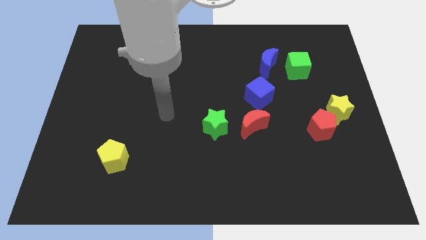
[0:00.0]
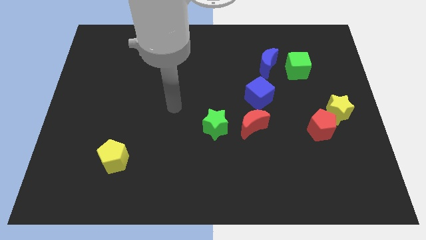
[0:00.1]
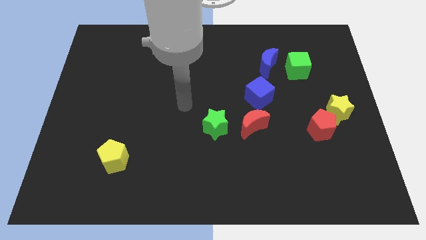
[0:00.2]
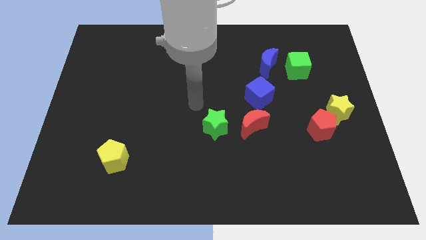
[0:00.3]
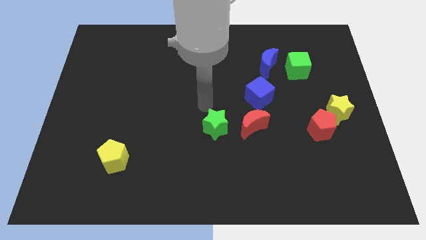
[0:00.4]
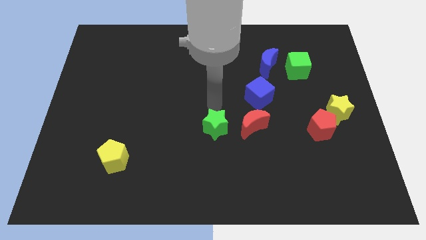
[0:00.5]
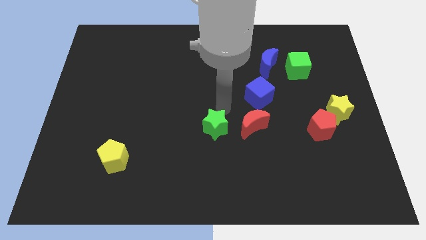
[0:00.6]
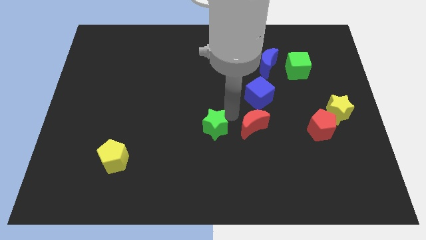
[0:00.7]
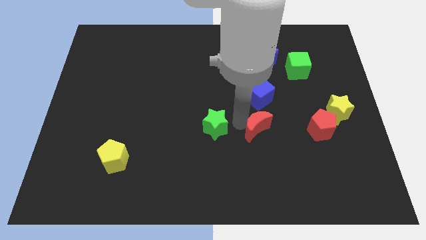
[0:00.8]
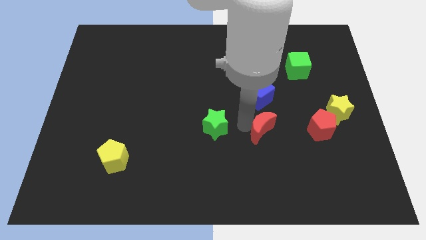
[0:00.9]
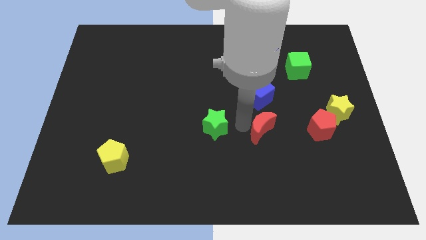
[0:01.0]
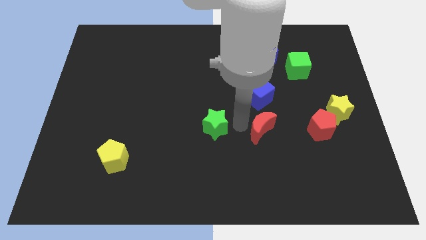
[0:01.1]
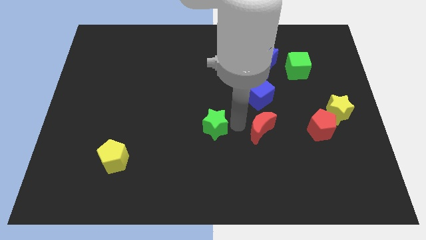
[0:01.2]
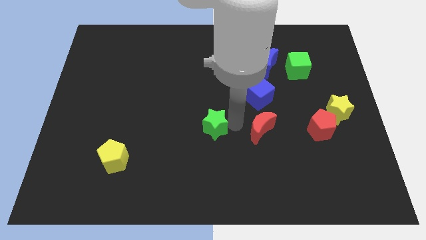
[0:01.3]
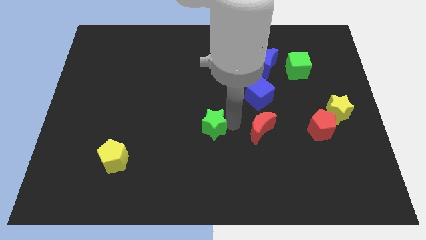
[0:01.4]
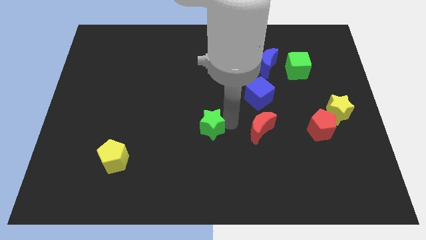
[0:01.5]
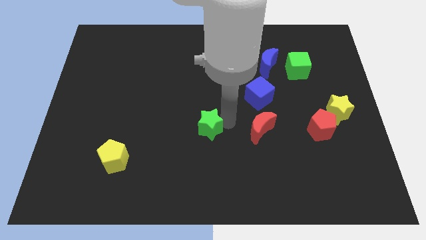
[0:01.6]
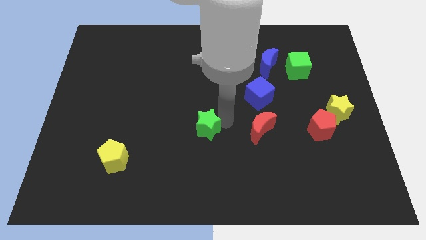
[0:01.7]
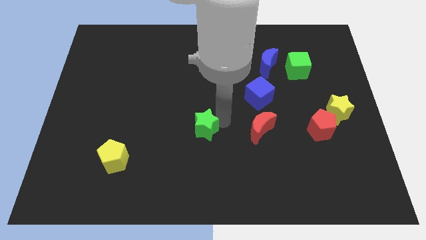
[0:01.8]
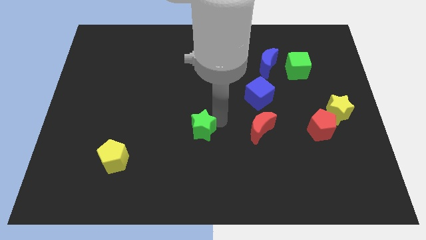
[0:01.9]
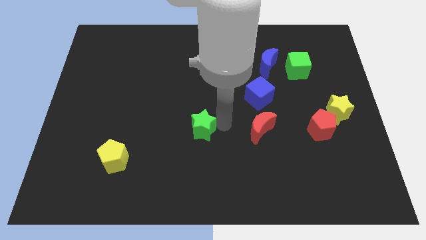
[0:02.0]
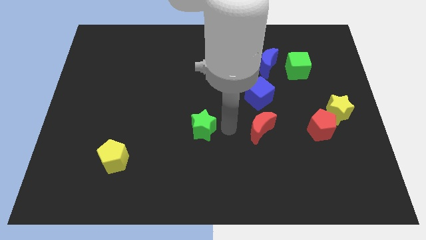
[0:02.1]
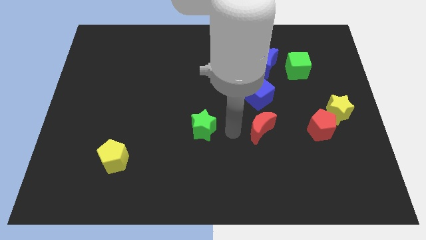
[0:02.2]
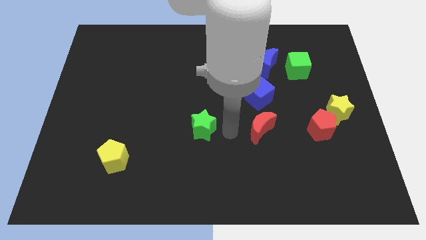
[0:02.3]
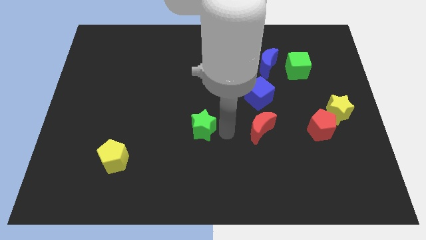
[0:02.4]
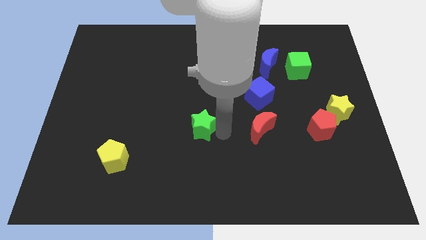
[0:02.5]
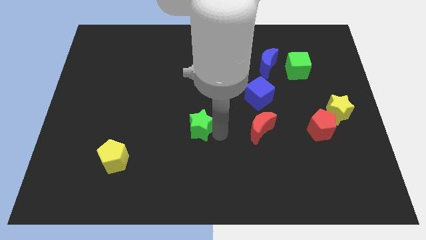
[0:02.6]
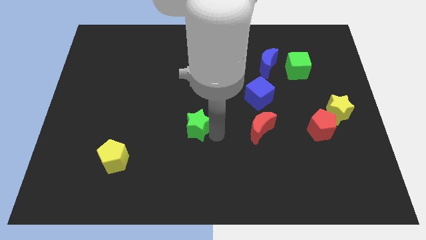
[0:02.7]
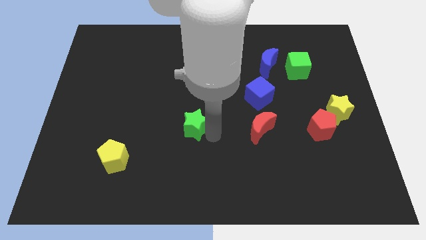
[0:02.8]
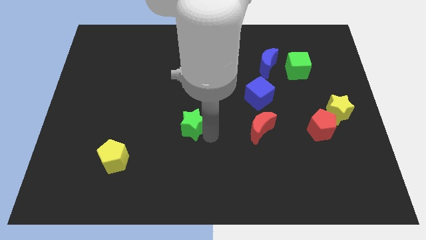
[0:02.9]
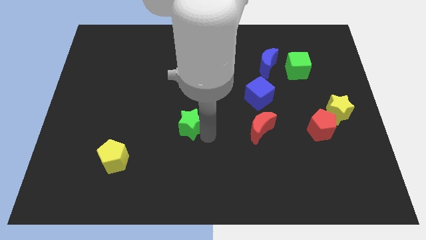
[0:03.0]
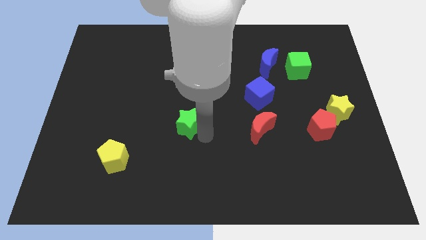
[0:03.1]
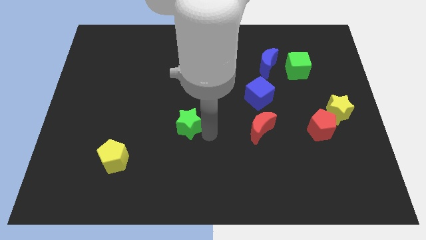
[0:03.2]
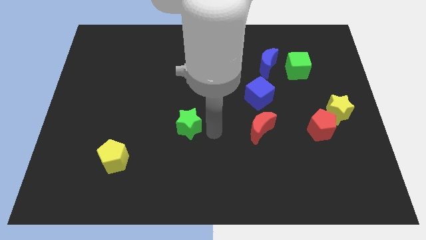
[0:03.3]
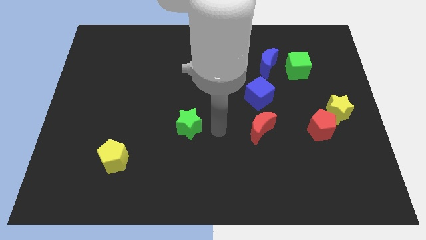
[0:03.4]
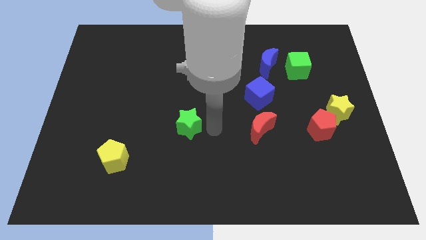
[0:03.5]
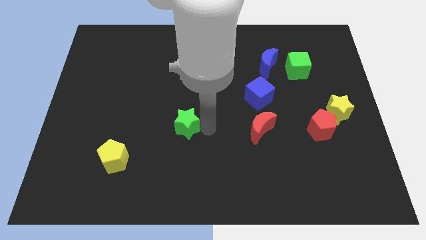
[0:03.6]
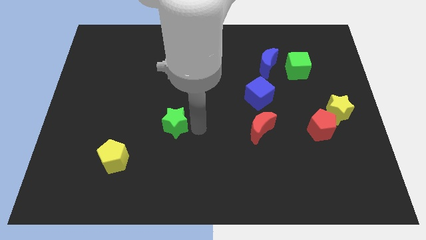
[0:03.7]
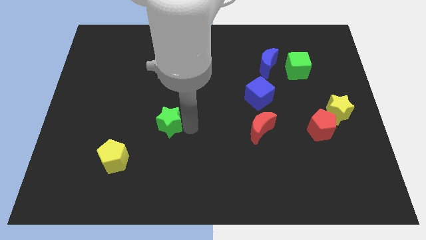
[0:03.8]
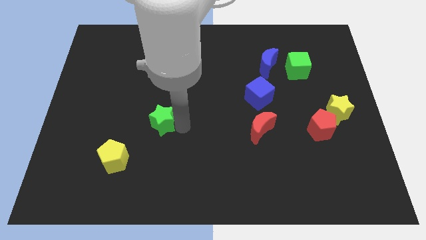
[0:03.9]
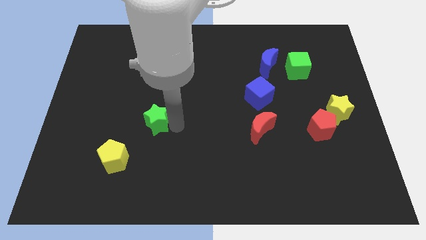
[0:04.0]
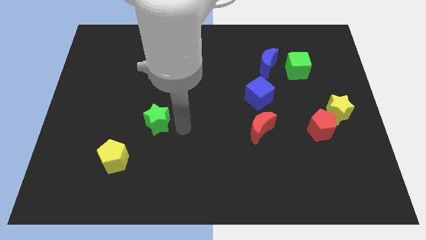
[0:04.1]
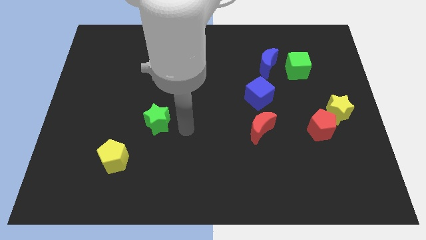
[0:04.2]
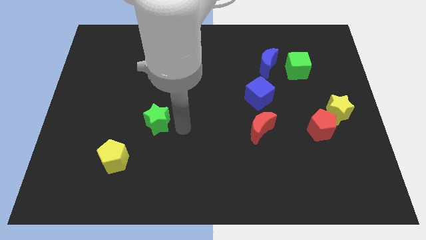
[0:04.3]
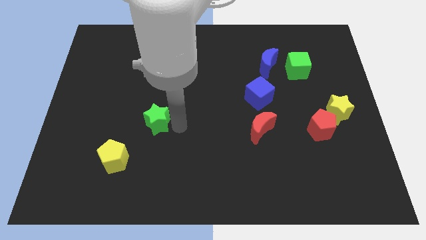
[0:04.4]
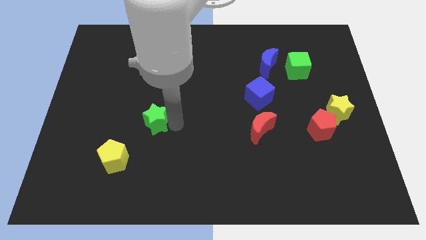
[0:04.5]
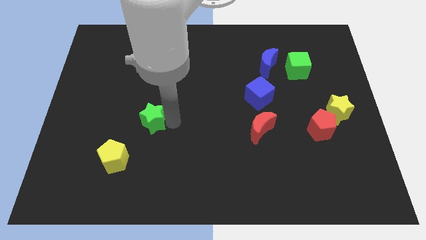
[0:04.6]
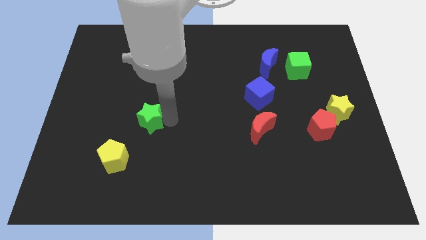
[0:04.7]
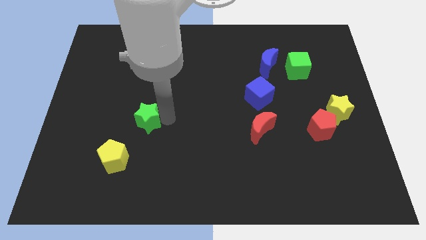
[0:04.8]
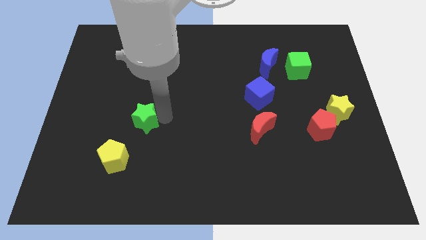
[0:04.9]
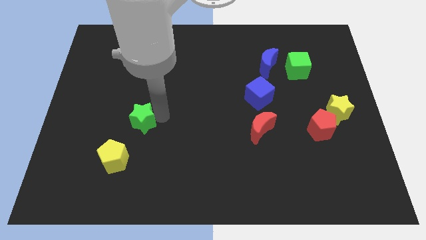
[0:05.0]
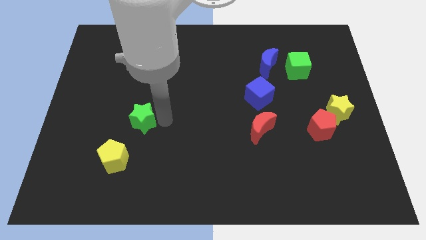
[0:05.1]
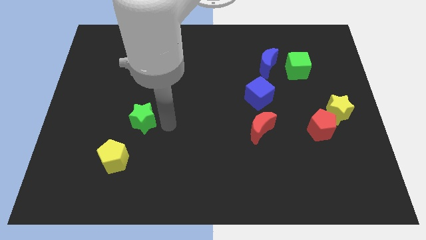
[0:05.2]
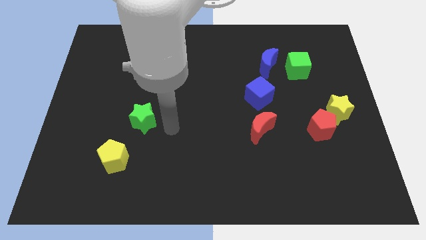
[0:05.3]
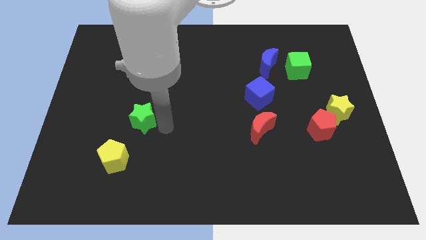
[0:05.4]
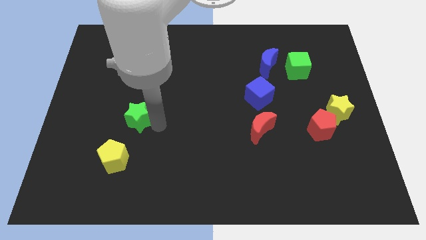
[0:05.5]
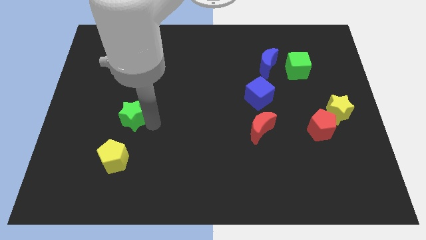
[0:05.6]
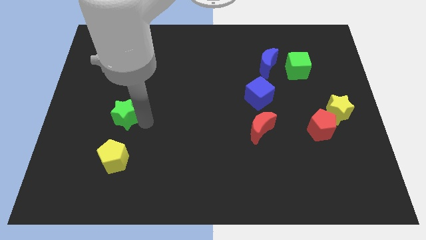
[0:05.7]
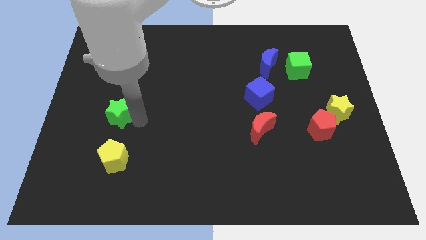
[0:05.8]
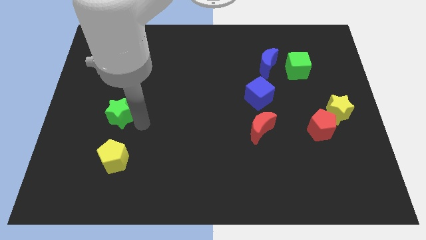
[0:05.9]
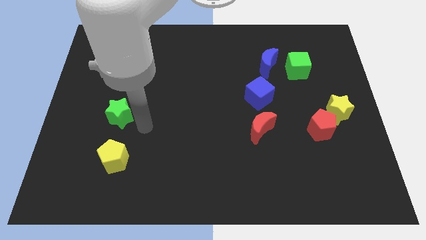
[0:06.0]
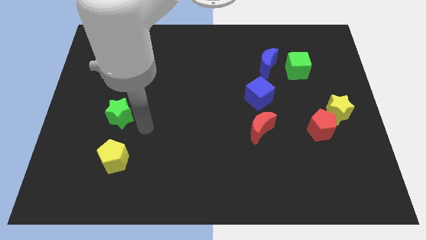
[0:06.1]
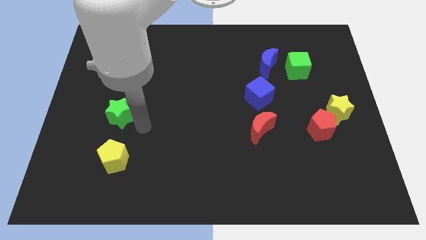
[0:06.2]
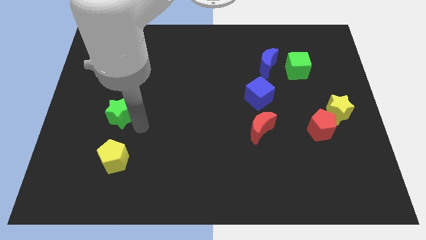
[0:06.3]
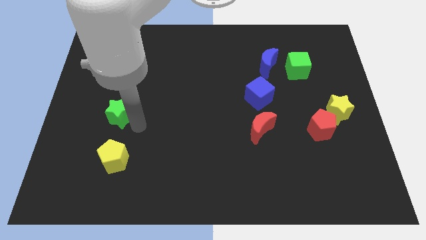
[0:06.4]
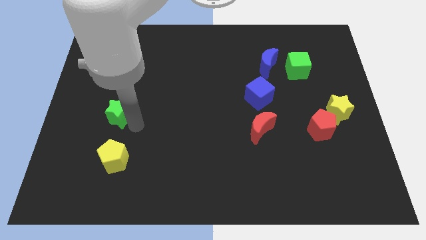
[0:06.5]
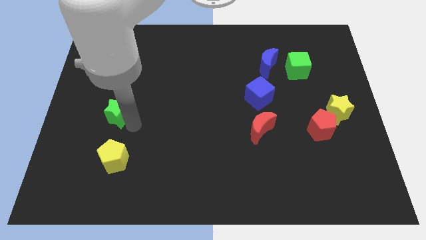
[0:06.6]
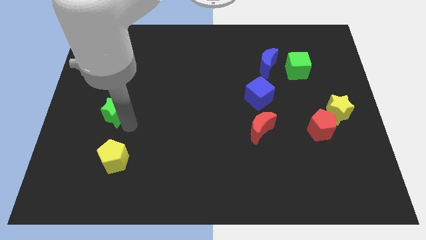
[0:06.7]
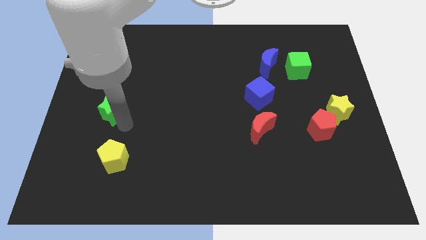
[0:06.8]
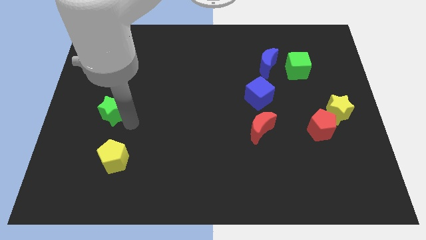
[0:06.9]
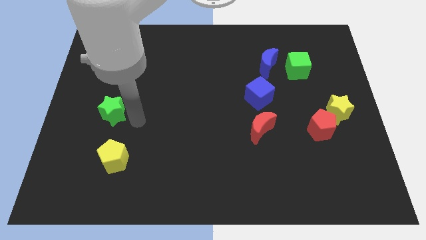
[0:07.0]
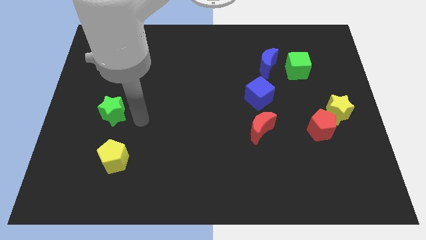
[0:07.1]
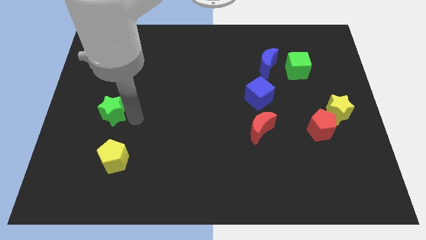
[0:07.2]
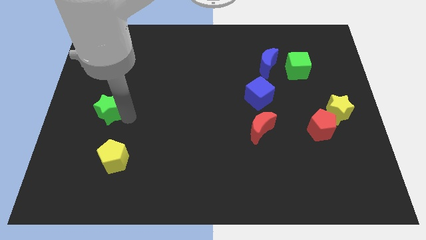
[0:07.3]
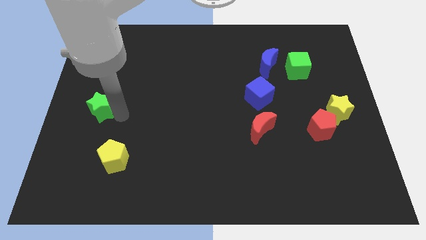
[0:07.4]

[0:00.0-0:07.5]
move the green star to the center left
